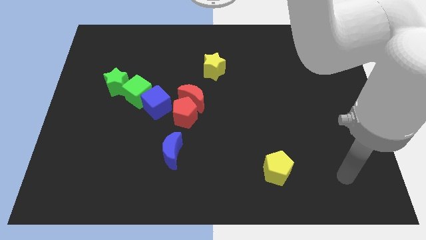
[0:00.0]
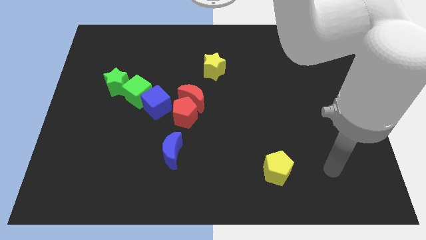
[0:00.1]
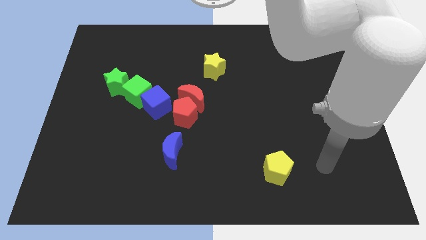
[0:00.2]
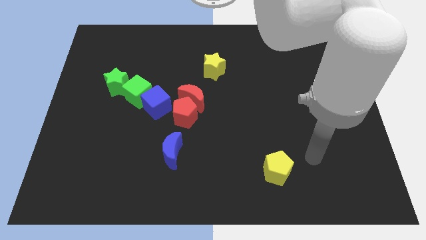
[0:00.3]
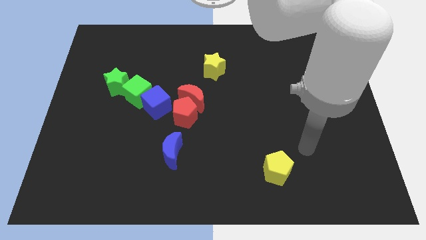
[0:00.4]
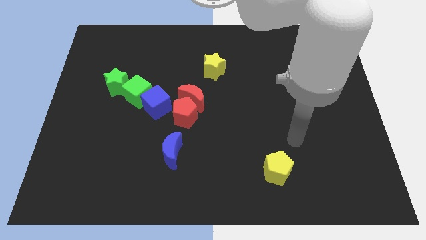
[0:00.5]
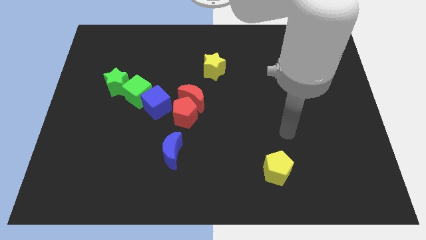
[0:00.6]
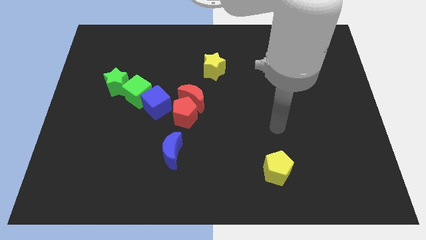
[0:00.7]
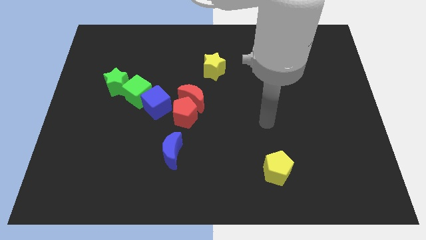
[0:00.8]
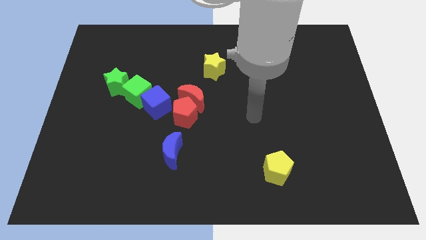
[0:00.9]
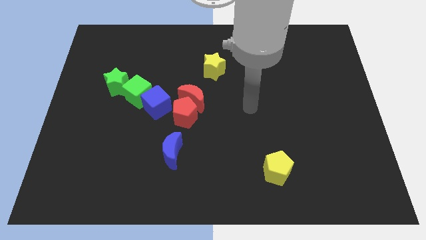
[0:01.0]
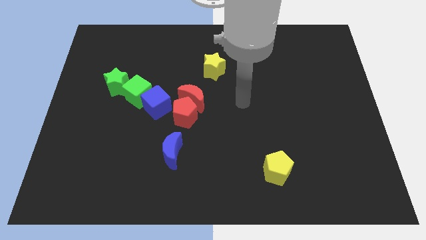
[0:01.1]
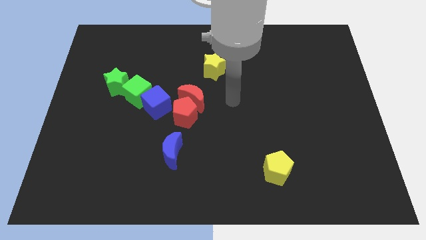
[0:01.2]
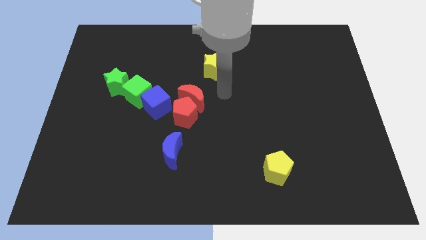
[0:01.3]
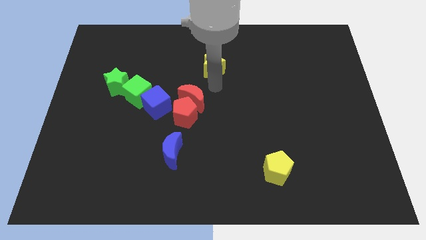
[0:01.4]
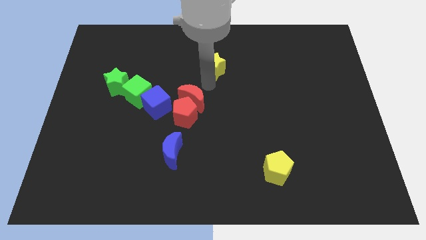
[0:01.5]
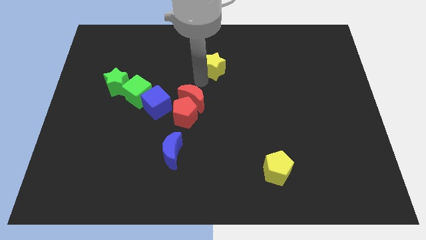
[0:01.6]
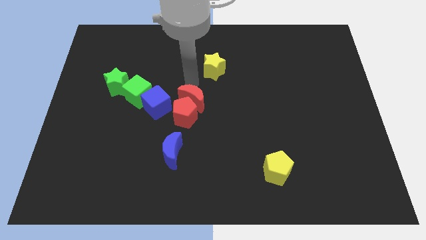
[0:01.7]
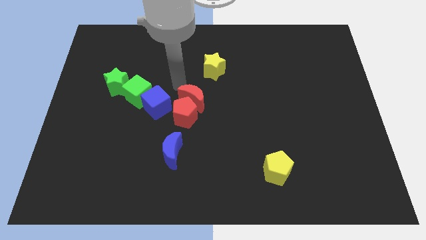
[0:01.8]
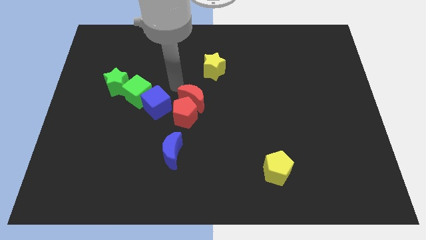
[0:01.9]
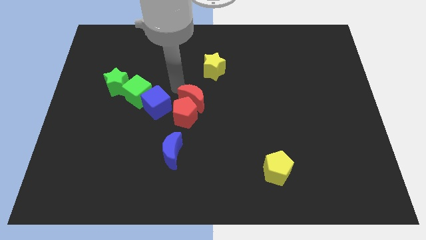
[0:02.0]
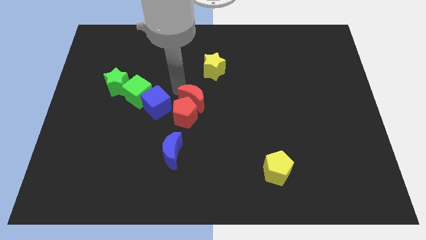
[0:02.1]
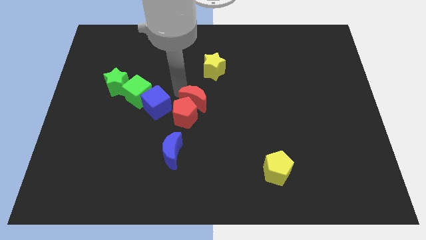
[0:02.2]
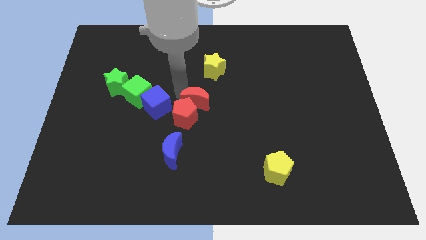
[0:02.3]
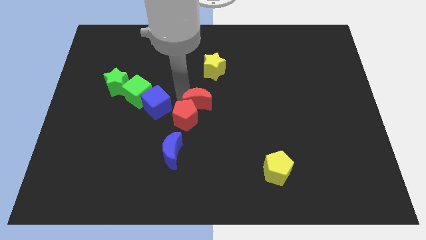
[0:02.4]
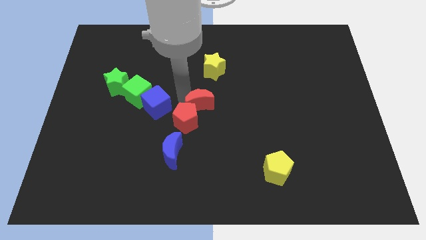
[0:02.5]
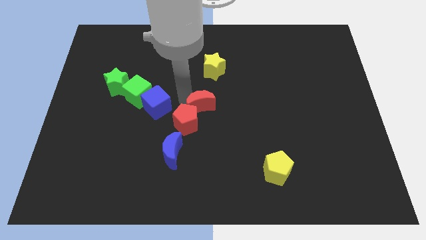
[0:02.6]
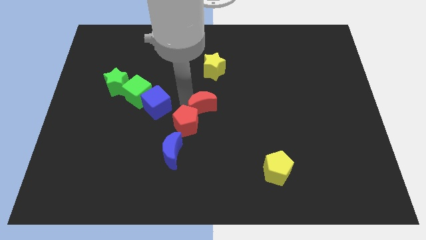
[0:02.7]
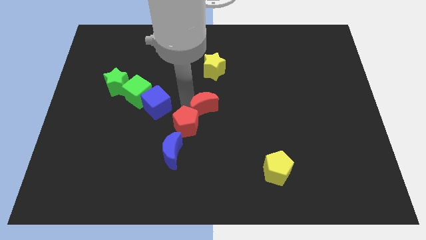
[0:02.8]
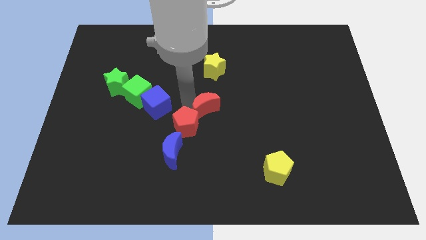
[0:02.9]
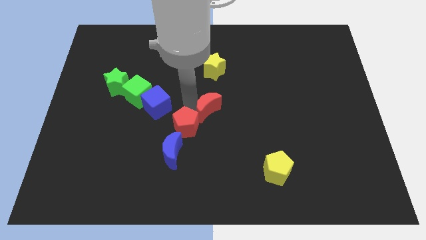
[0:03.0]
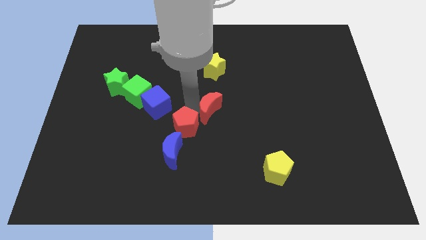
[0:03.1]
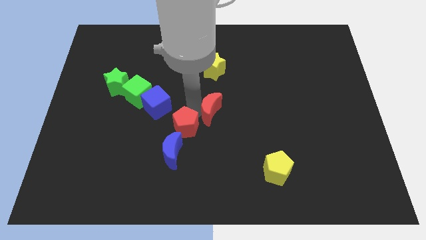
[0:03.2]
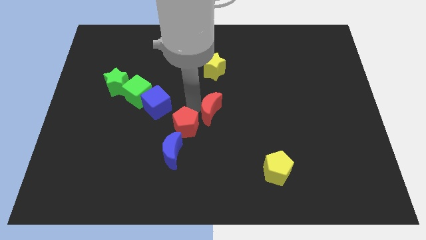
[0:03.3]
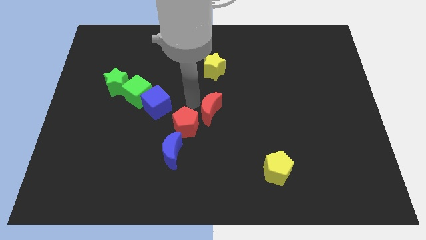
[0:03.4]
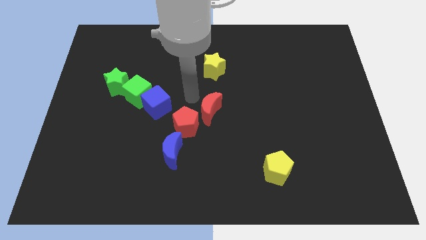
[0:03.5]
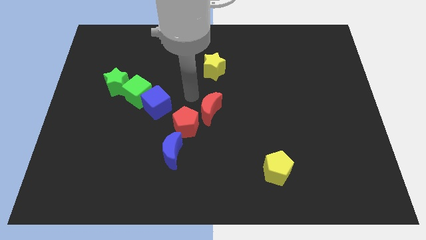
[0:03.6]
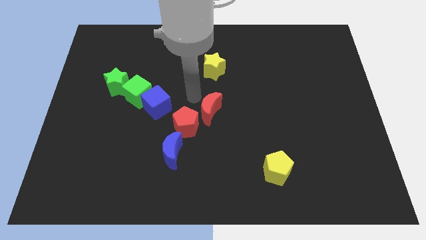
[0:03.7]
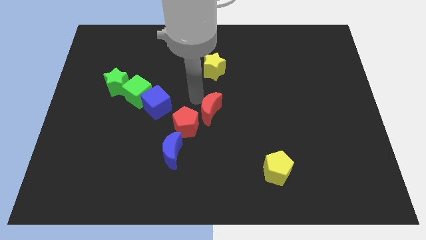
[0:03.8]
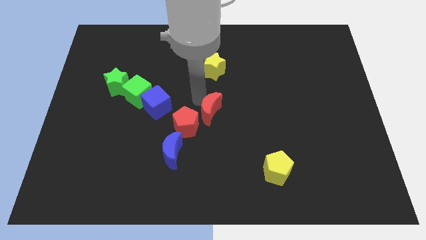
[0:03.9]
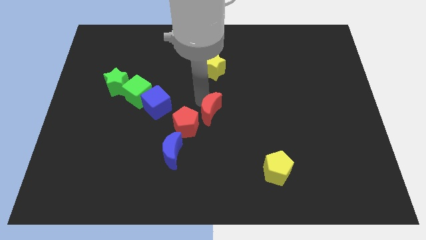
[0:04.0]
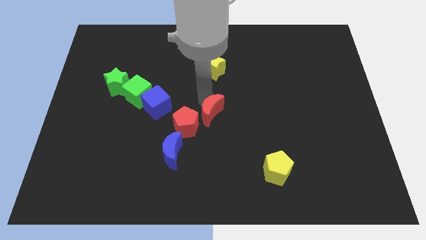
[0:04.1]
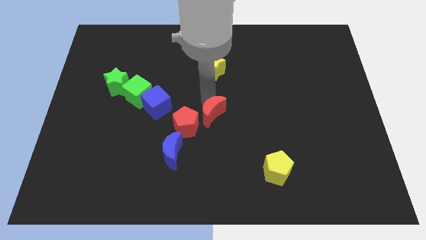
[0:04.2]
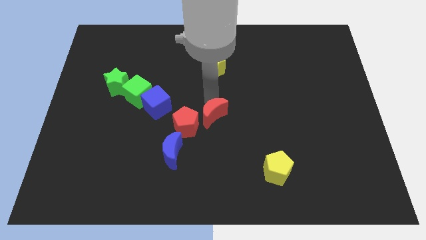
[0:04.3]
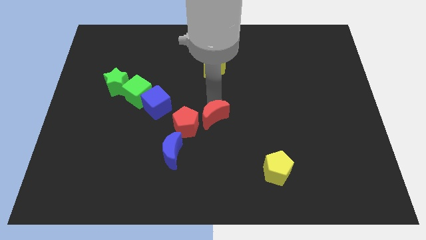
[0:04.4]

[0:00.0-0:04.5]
slightly push the red moon down and to the right

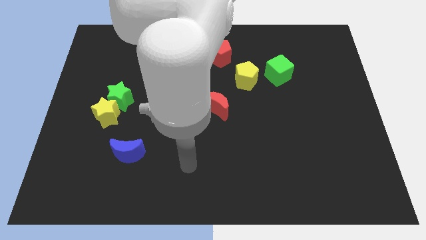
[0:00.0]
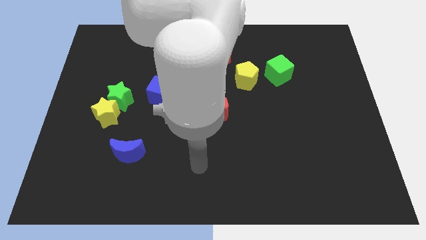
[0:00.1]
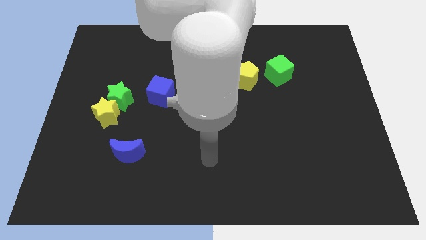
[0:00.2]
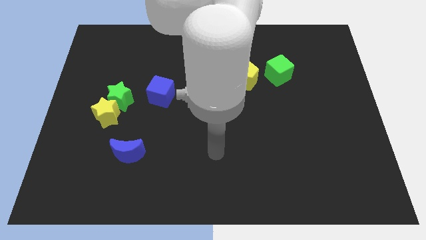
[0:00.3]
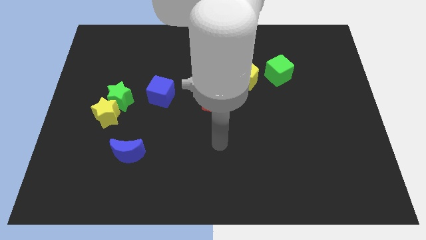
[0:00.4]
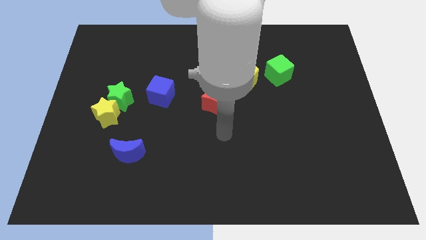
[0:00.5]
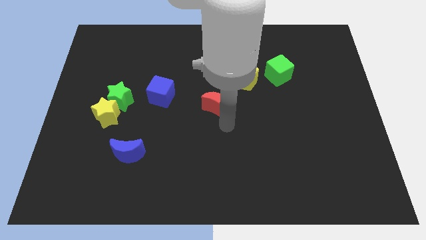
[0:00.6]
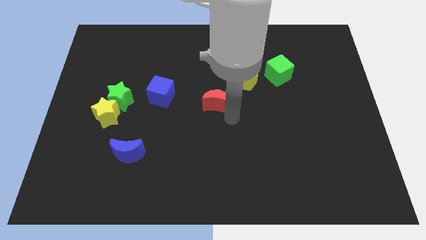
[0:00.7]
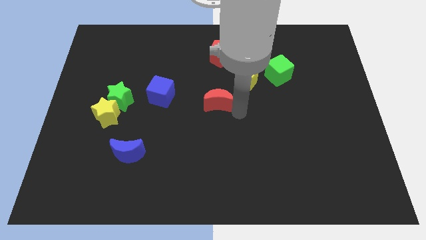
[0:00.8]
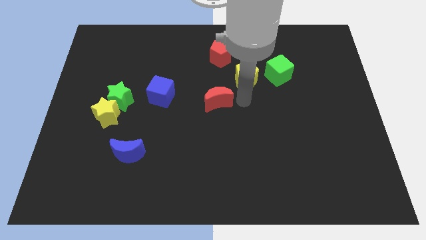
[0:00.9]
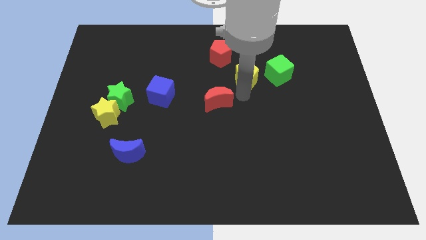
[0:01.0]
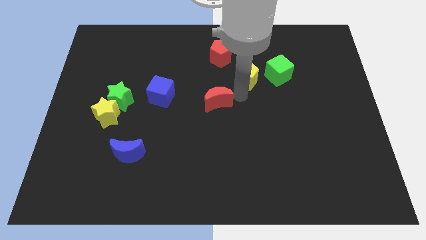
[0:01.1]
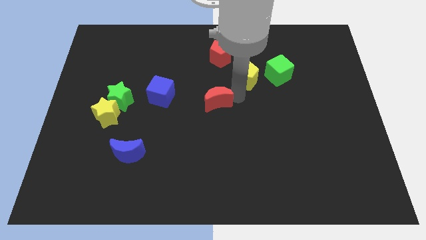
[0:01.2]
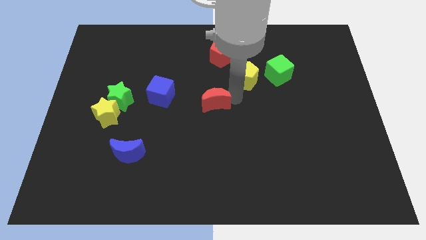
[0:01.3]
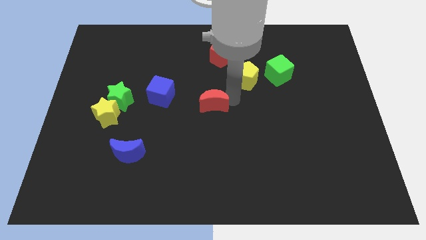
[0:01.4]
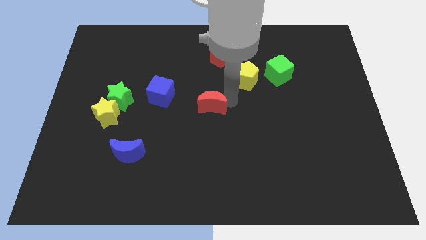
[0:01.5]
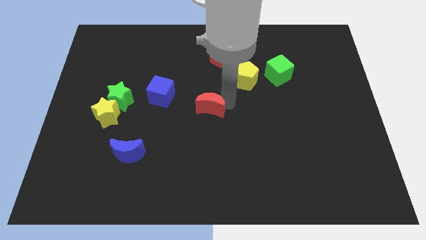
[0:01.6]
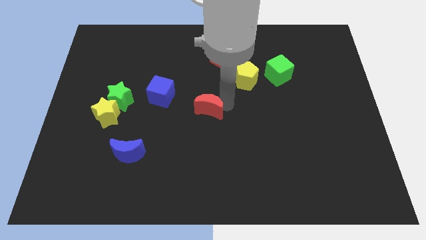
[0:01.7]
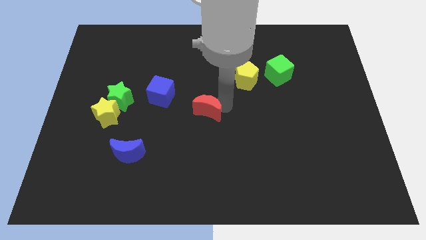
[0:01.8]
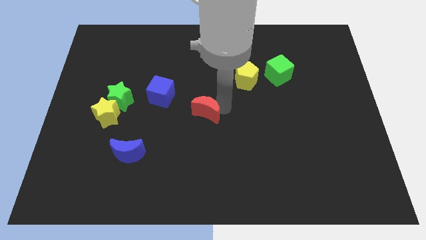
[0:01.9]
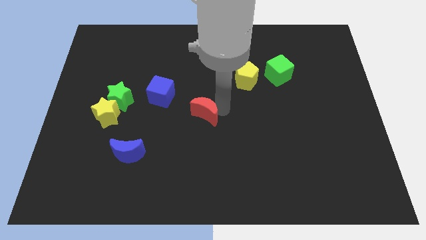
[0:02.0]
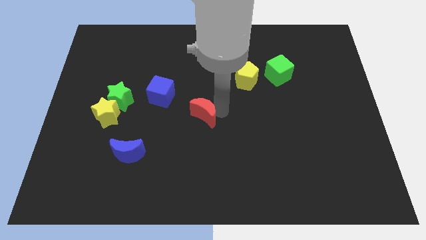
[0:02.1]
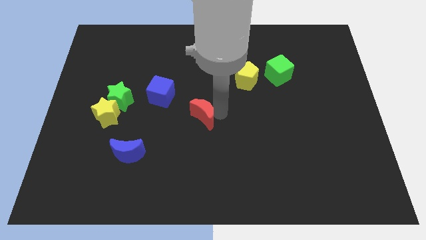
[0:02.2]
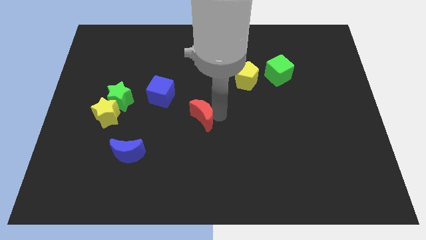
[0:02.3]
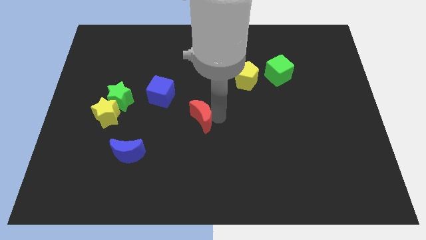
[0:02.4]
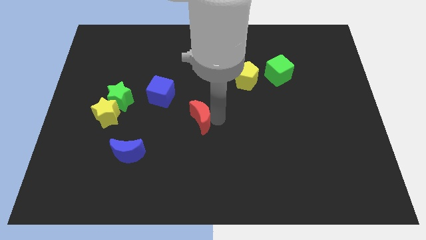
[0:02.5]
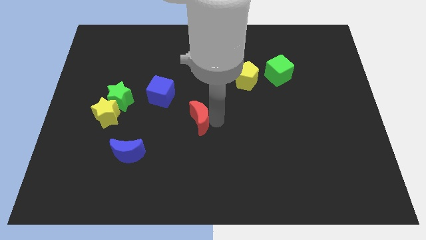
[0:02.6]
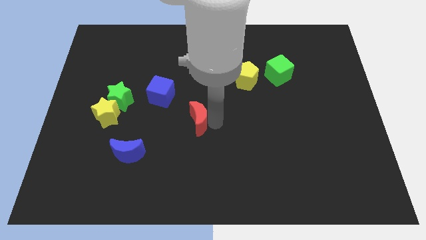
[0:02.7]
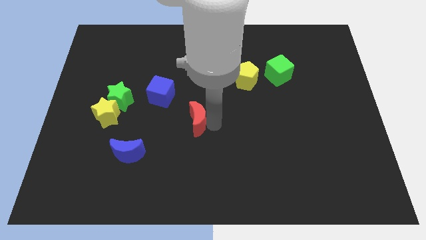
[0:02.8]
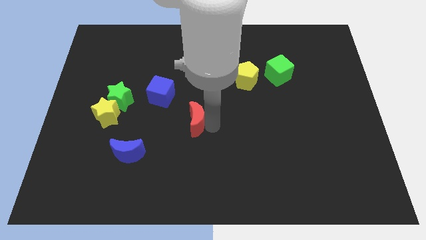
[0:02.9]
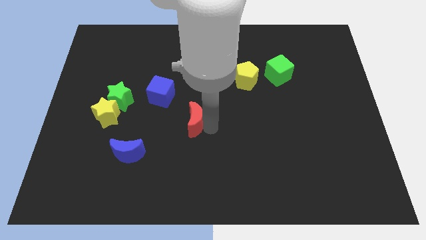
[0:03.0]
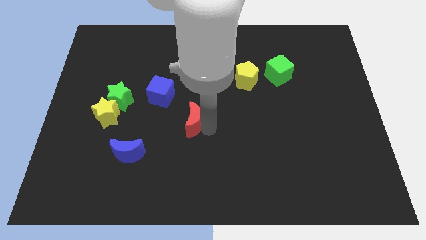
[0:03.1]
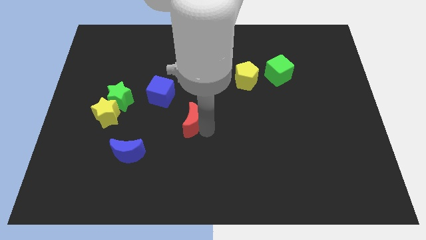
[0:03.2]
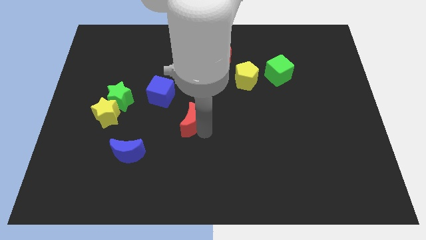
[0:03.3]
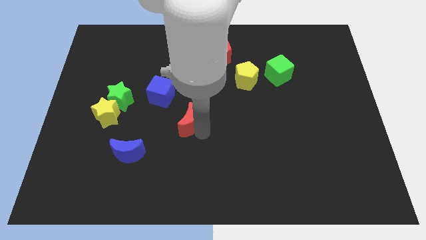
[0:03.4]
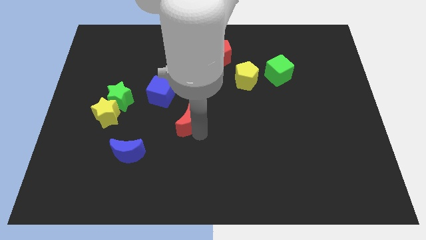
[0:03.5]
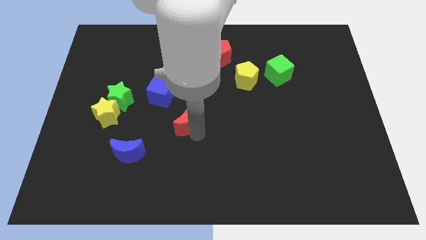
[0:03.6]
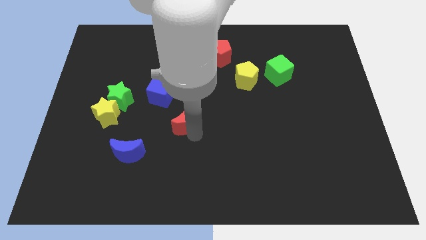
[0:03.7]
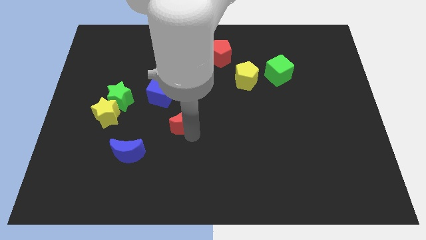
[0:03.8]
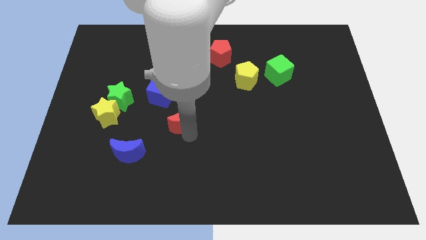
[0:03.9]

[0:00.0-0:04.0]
slightly push the red moon to the left
